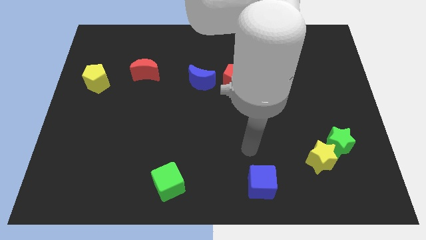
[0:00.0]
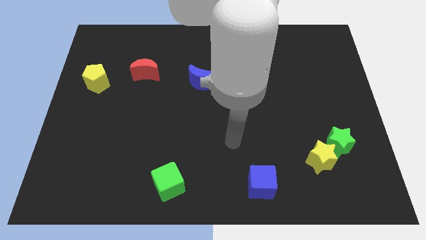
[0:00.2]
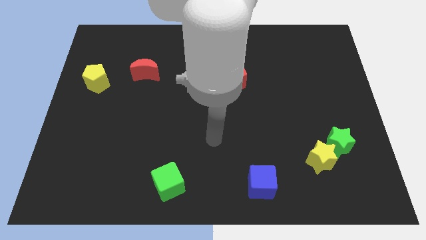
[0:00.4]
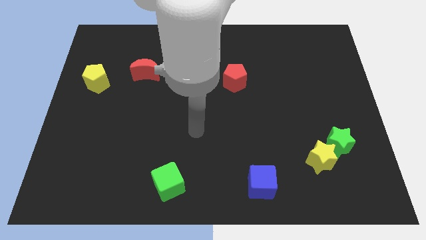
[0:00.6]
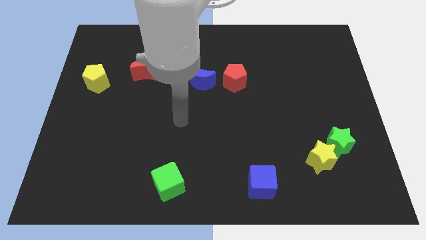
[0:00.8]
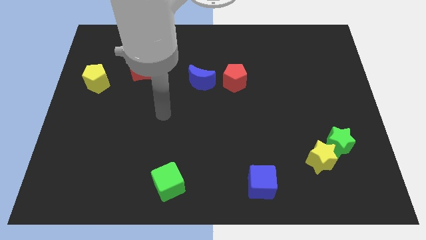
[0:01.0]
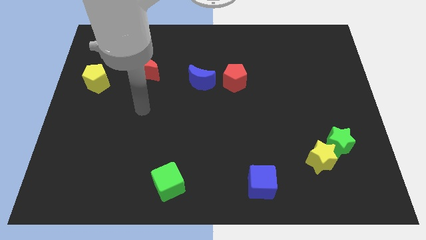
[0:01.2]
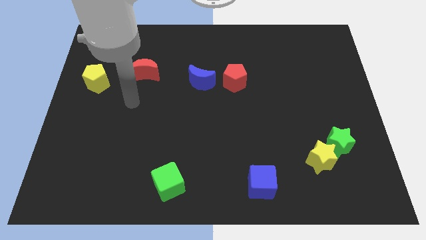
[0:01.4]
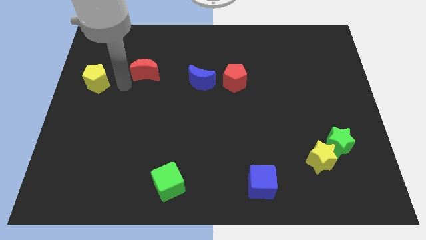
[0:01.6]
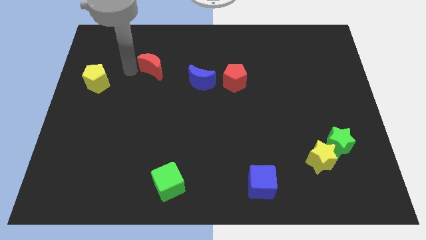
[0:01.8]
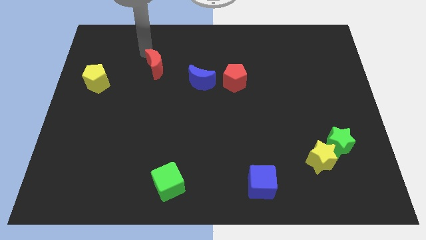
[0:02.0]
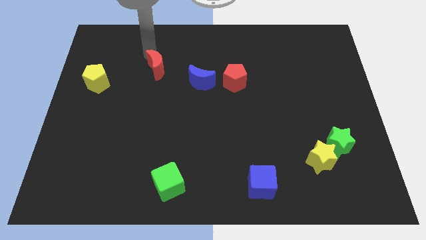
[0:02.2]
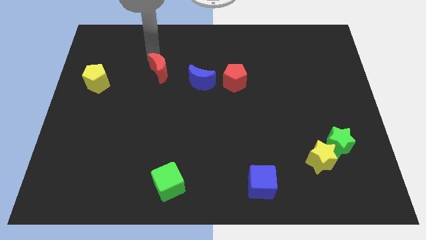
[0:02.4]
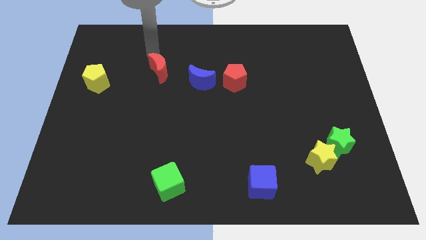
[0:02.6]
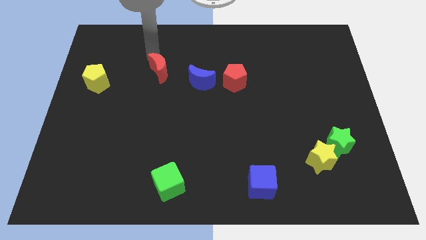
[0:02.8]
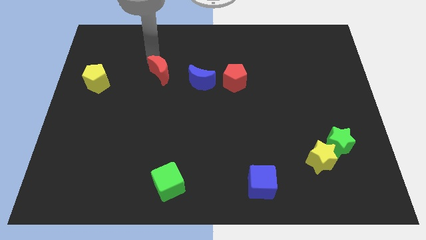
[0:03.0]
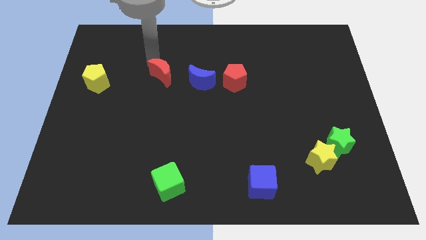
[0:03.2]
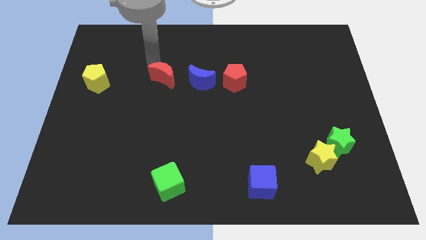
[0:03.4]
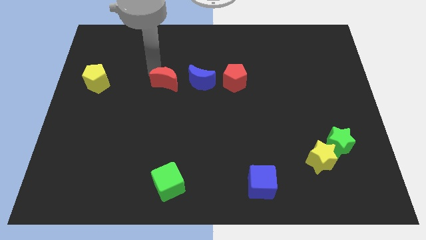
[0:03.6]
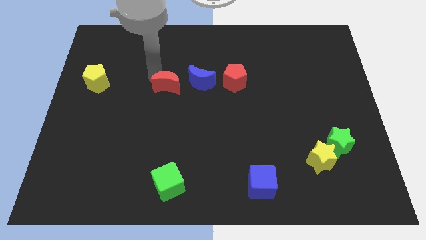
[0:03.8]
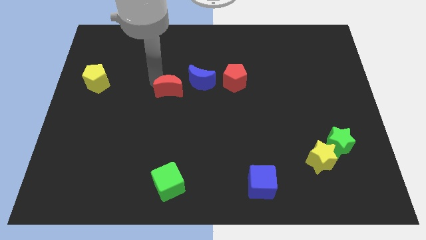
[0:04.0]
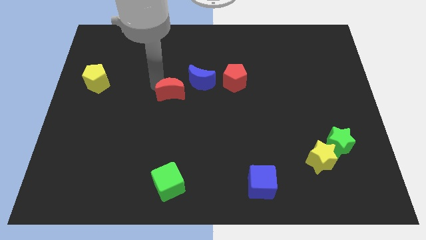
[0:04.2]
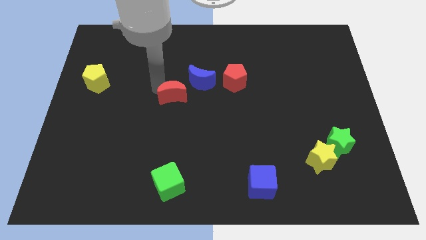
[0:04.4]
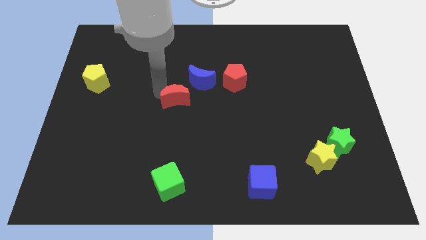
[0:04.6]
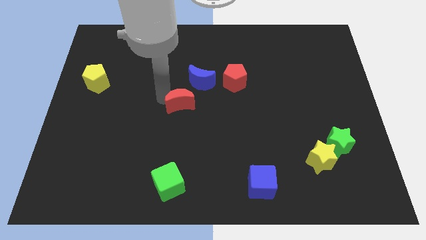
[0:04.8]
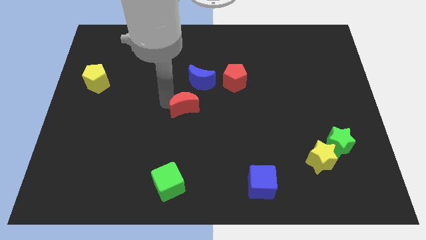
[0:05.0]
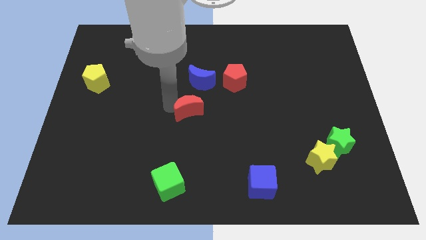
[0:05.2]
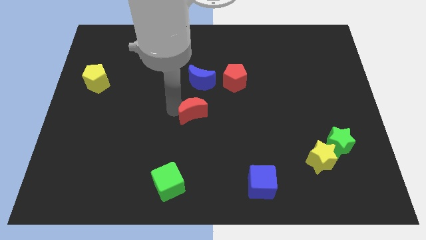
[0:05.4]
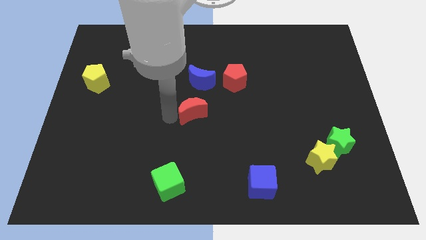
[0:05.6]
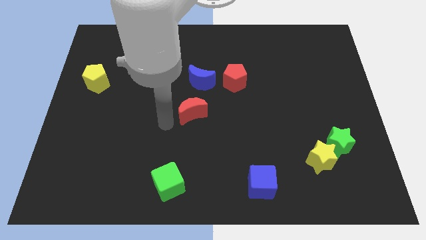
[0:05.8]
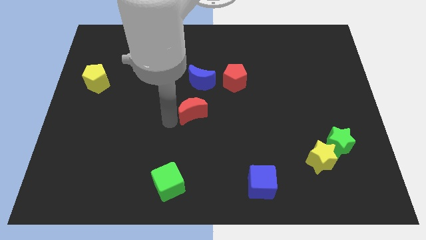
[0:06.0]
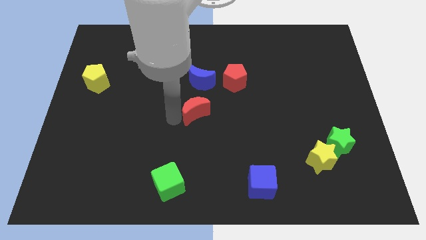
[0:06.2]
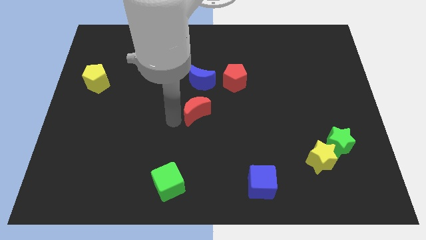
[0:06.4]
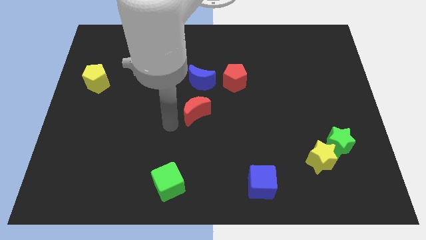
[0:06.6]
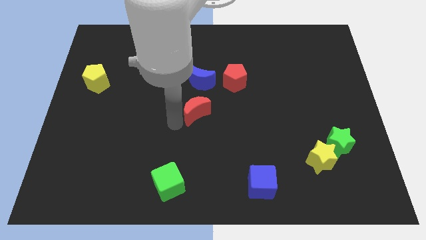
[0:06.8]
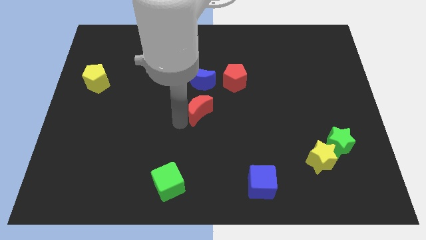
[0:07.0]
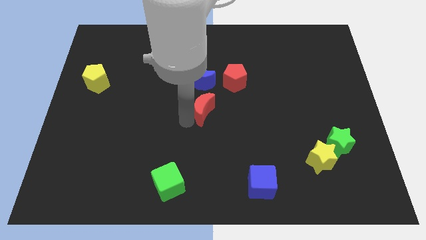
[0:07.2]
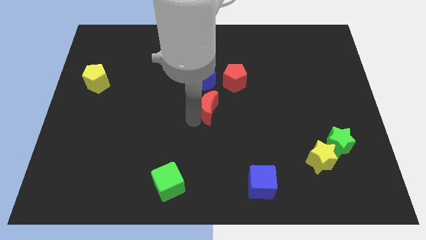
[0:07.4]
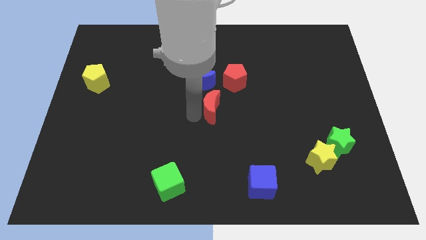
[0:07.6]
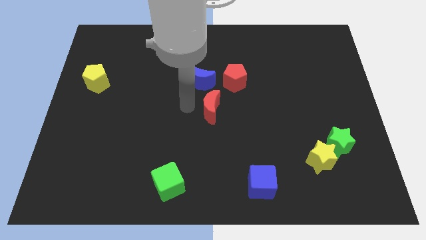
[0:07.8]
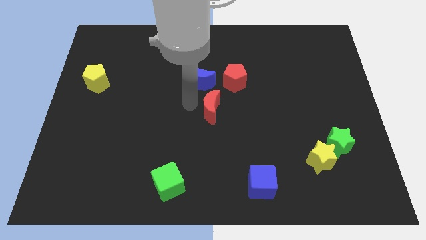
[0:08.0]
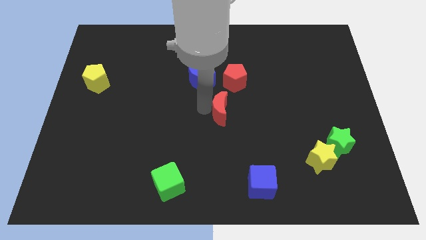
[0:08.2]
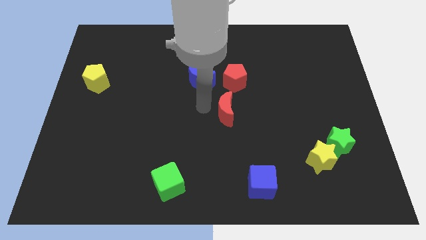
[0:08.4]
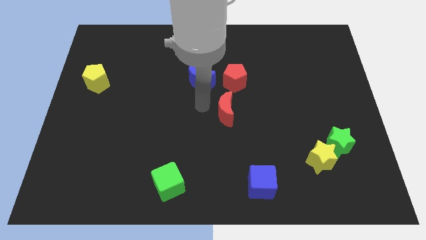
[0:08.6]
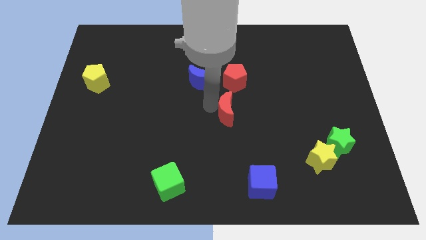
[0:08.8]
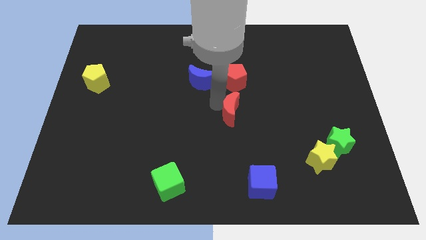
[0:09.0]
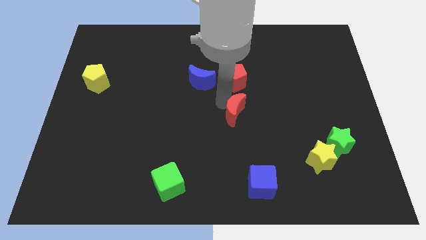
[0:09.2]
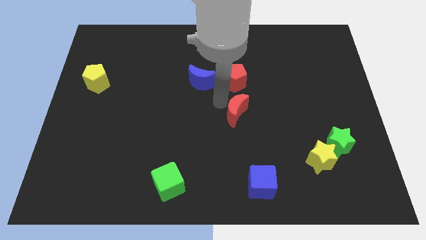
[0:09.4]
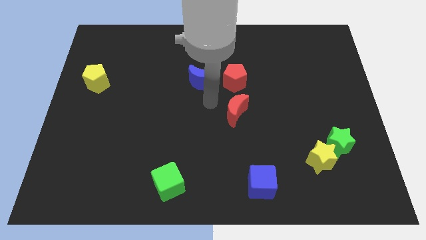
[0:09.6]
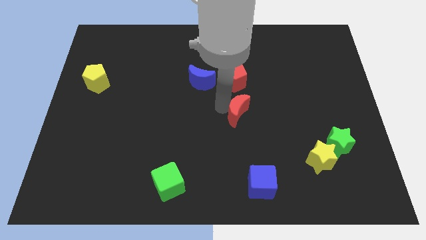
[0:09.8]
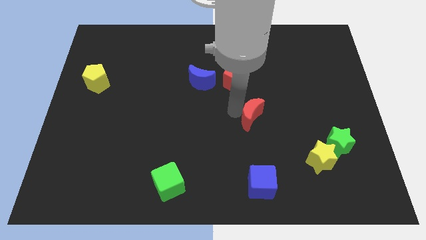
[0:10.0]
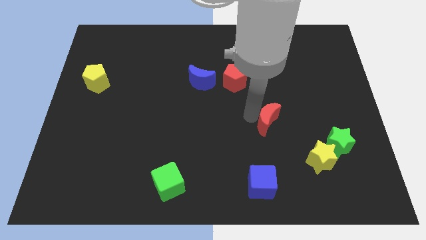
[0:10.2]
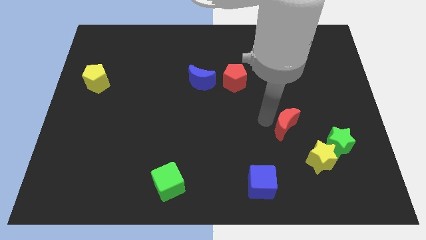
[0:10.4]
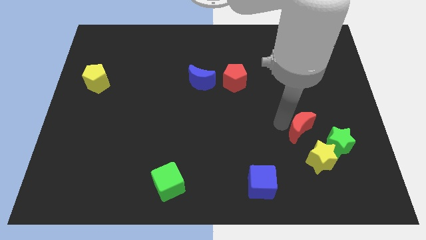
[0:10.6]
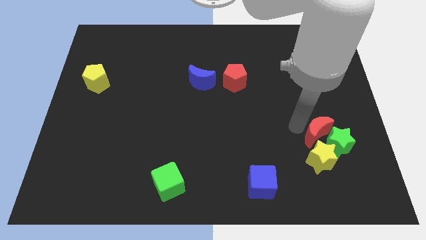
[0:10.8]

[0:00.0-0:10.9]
put the red moon to the green star

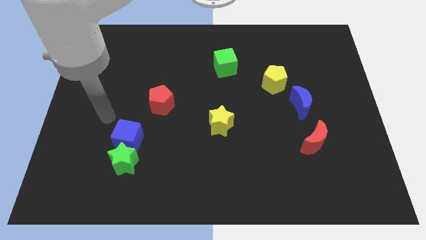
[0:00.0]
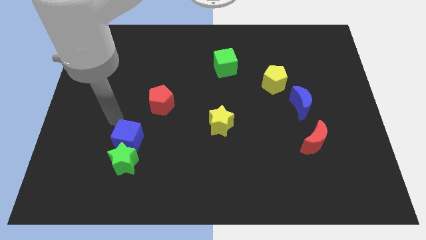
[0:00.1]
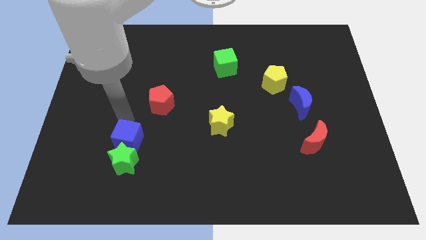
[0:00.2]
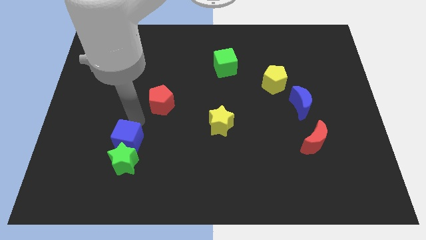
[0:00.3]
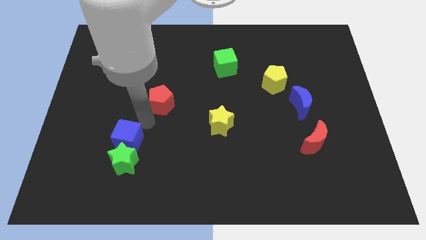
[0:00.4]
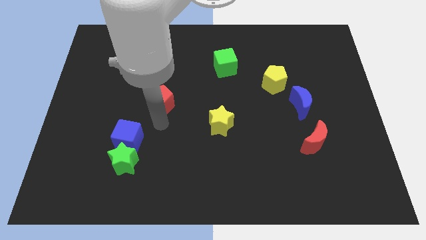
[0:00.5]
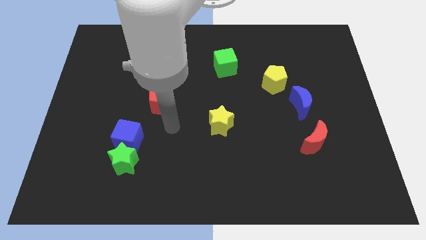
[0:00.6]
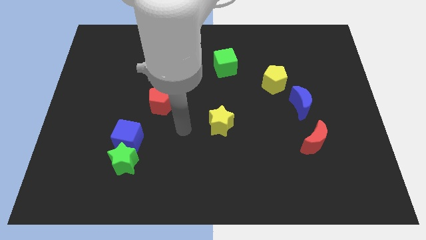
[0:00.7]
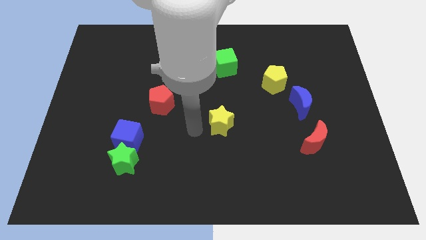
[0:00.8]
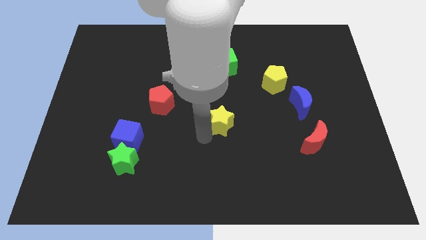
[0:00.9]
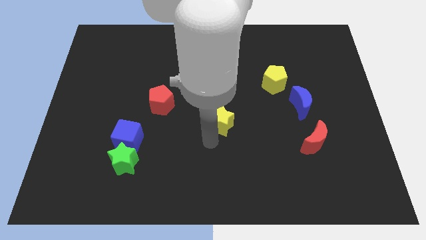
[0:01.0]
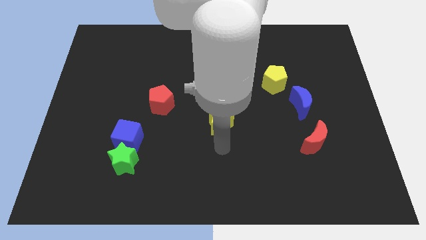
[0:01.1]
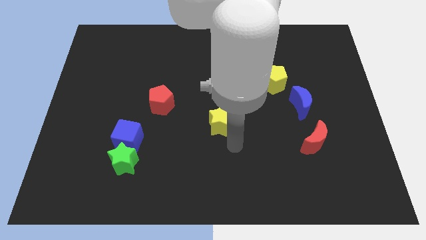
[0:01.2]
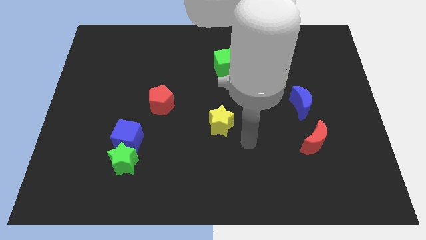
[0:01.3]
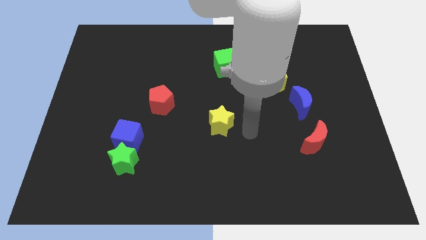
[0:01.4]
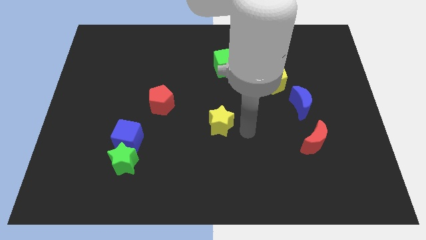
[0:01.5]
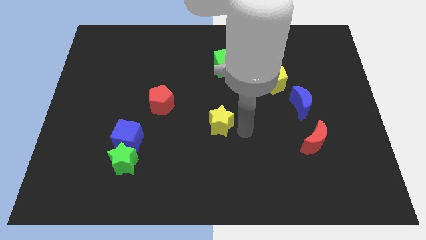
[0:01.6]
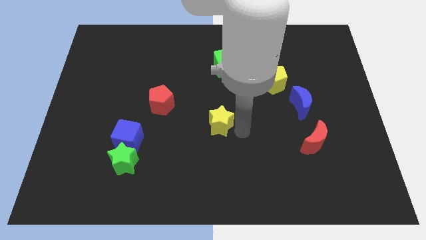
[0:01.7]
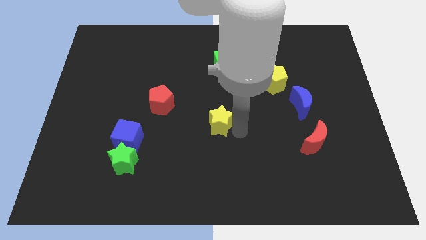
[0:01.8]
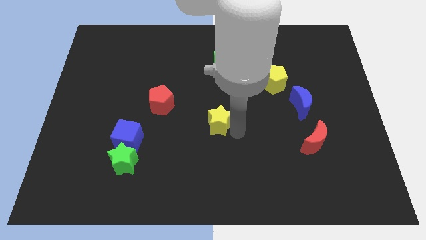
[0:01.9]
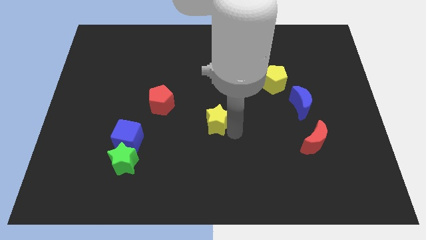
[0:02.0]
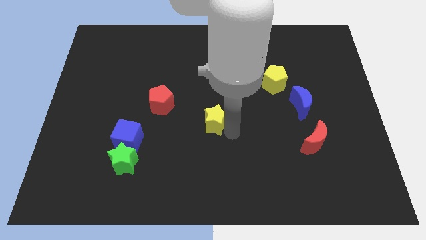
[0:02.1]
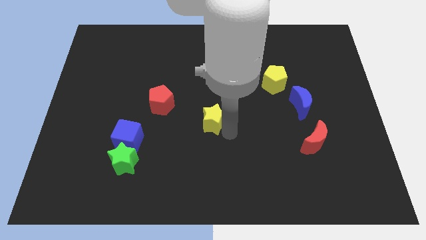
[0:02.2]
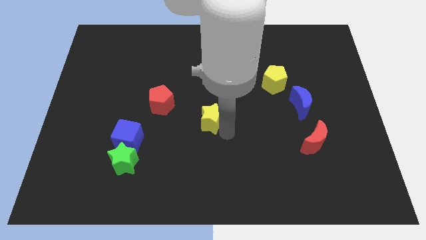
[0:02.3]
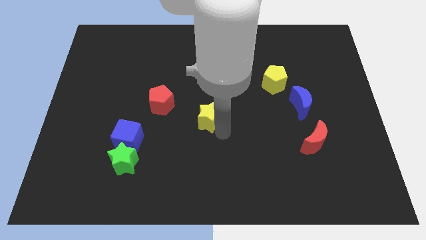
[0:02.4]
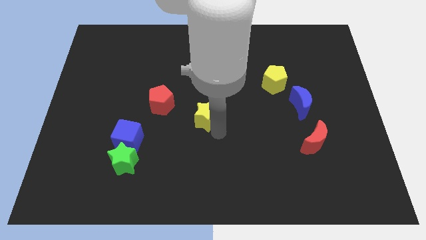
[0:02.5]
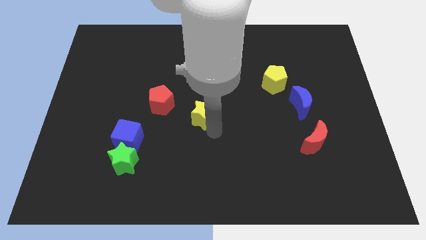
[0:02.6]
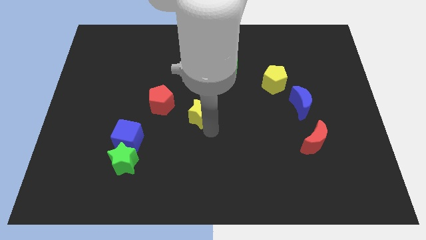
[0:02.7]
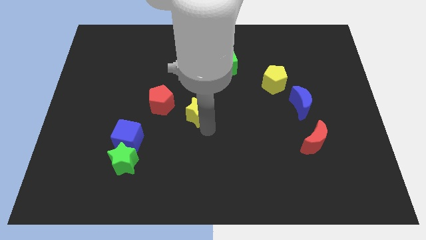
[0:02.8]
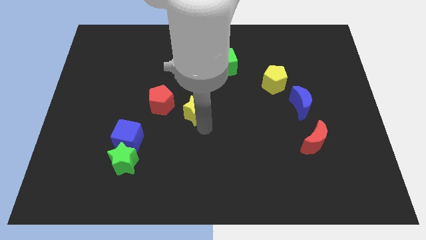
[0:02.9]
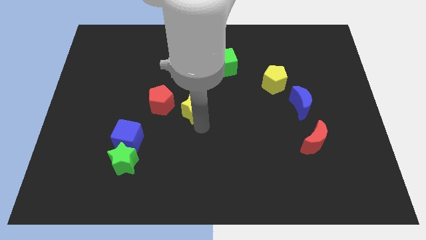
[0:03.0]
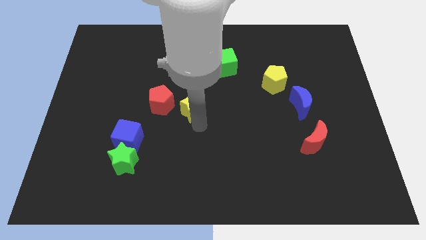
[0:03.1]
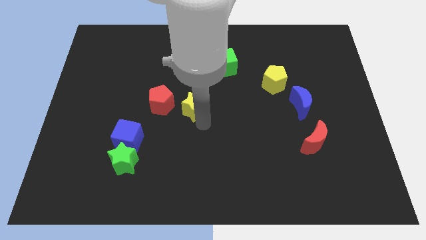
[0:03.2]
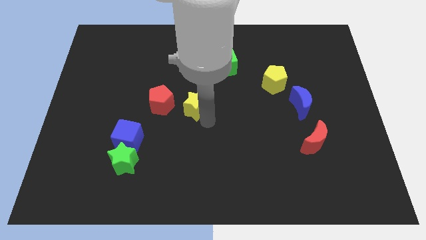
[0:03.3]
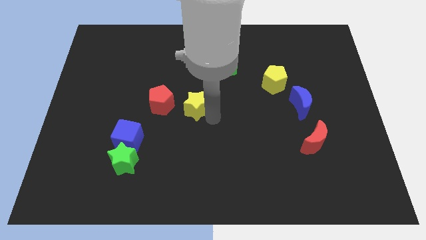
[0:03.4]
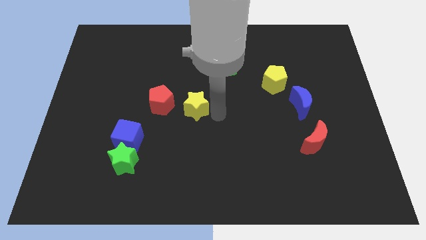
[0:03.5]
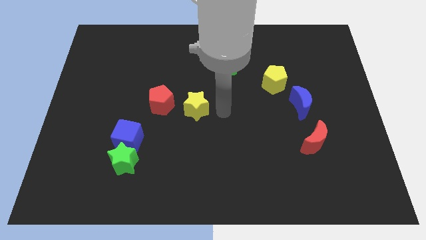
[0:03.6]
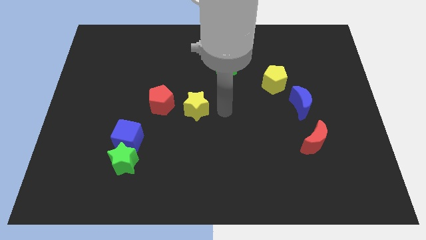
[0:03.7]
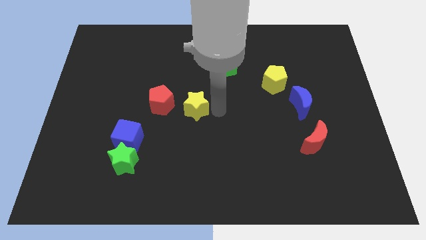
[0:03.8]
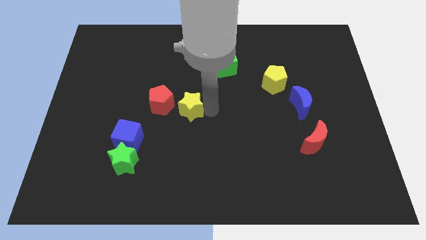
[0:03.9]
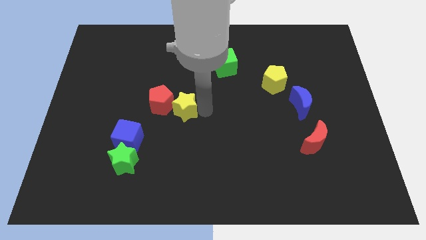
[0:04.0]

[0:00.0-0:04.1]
push the yellow star to the red pentagon
